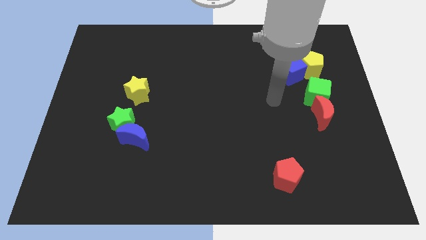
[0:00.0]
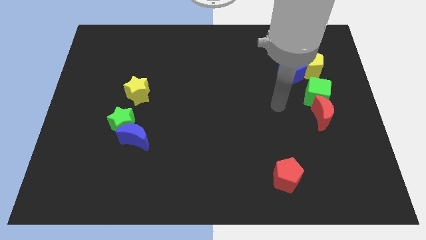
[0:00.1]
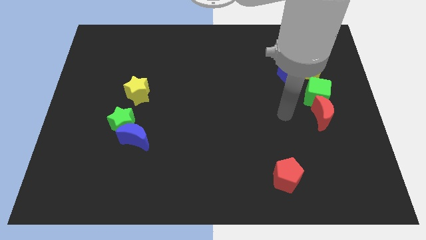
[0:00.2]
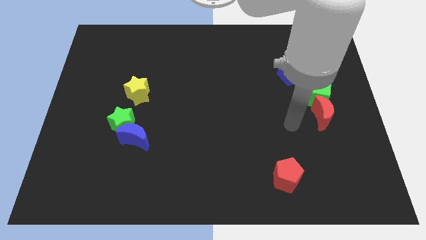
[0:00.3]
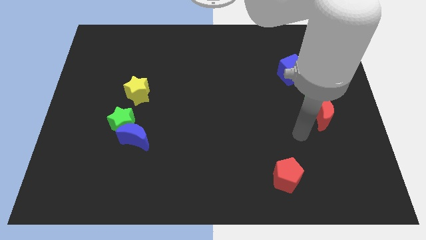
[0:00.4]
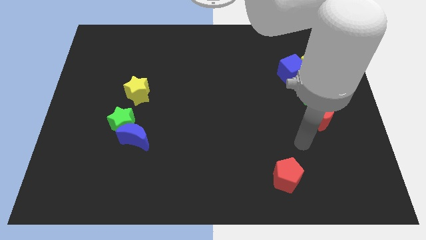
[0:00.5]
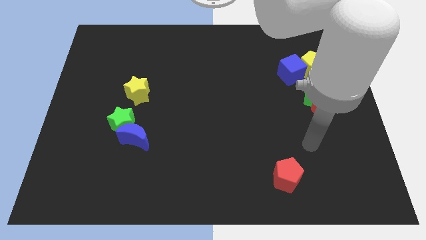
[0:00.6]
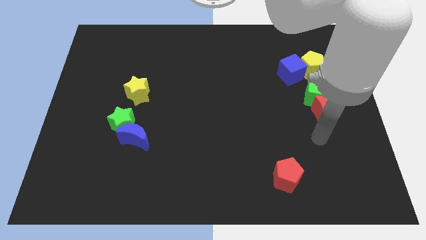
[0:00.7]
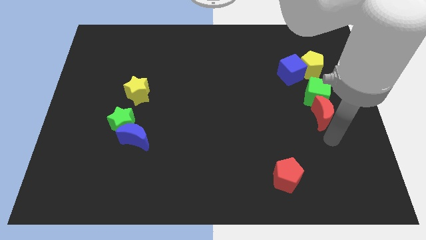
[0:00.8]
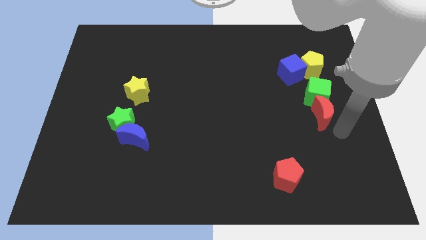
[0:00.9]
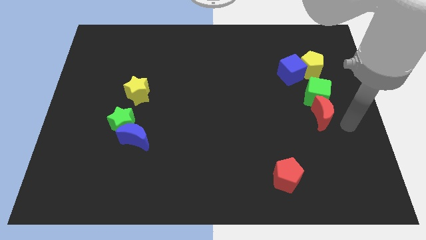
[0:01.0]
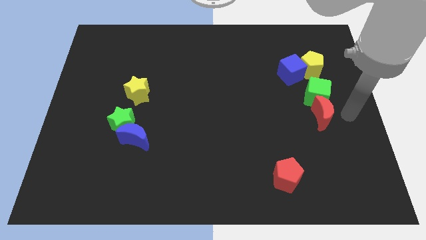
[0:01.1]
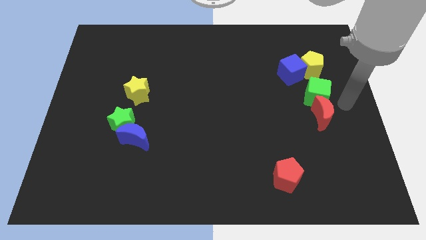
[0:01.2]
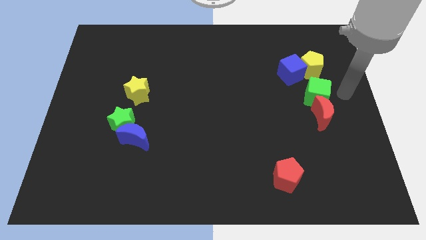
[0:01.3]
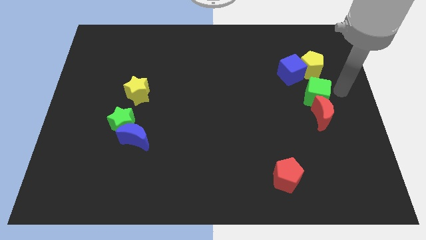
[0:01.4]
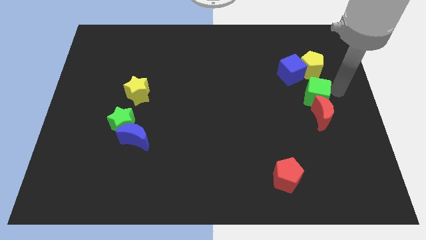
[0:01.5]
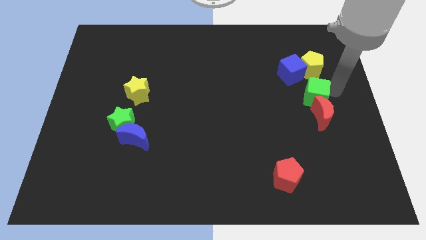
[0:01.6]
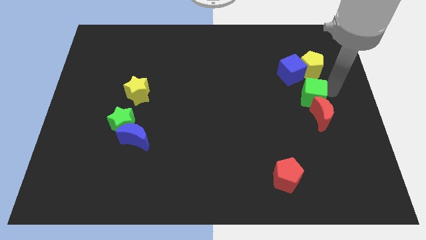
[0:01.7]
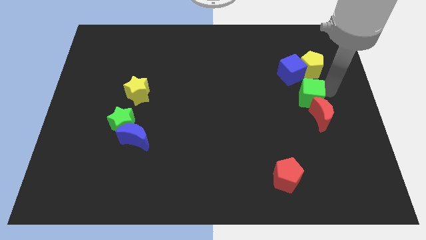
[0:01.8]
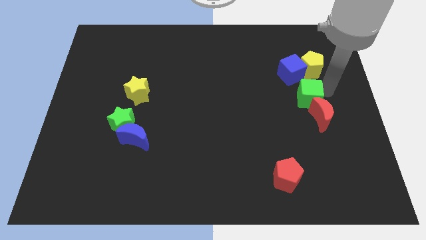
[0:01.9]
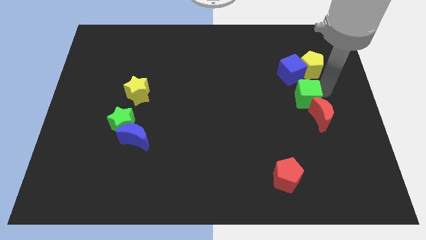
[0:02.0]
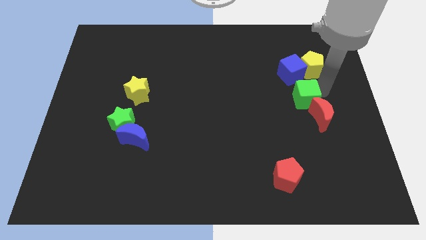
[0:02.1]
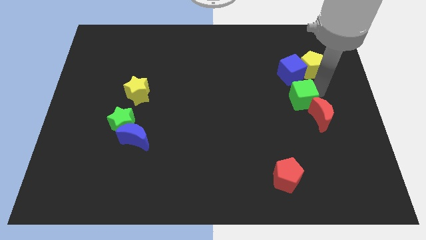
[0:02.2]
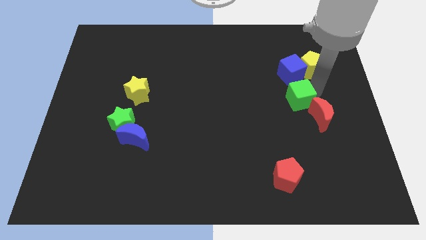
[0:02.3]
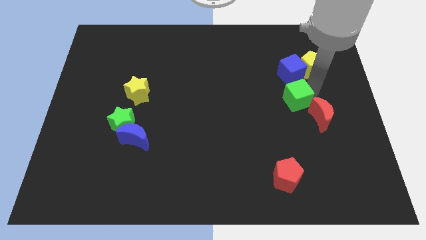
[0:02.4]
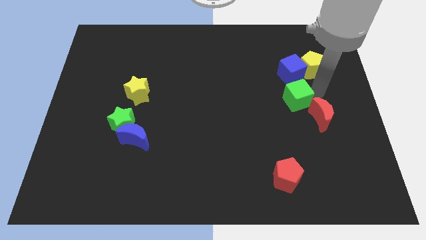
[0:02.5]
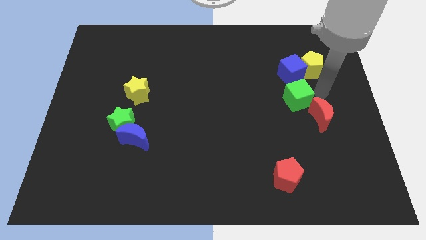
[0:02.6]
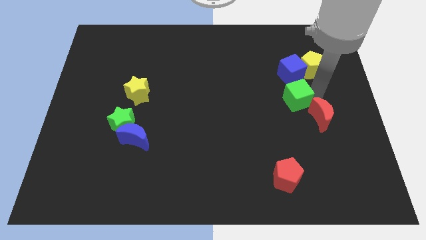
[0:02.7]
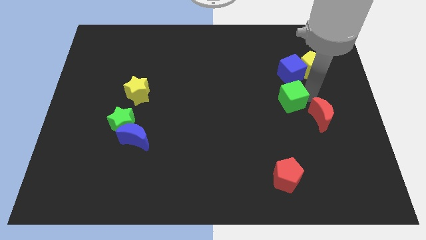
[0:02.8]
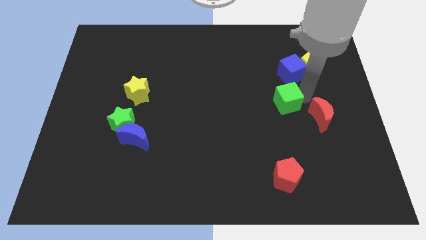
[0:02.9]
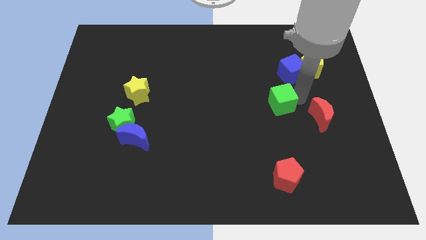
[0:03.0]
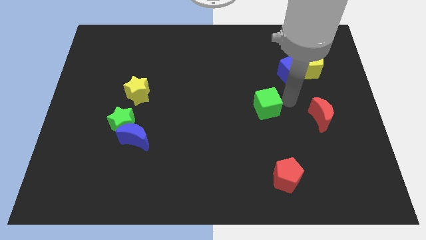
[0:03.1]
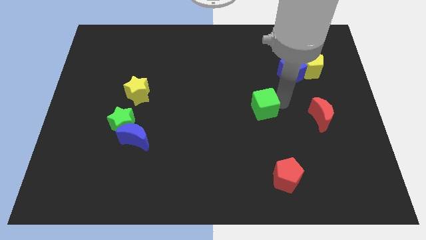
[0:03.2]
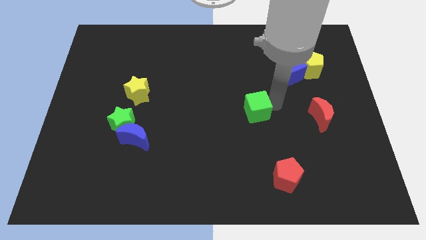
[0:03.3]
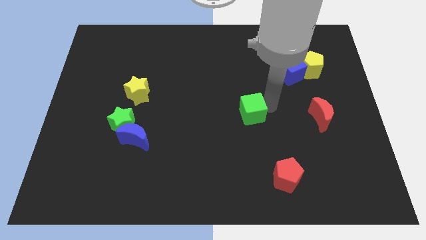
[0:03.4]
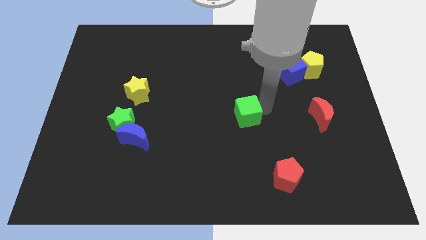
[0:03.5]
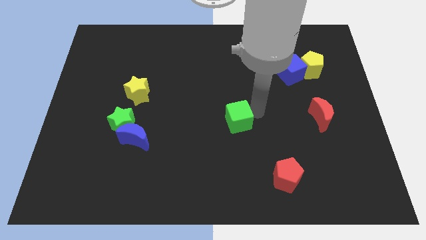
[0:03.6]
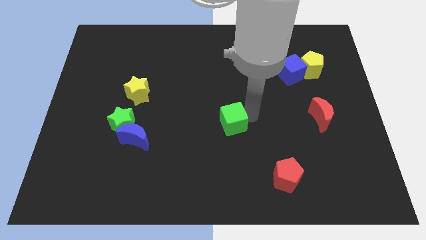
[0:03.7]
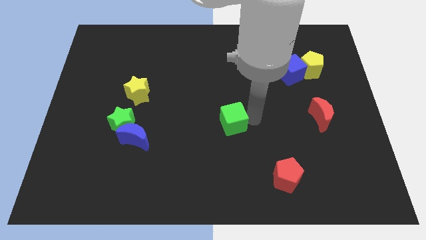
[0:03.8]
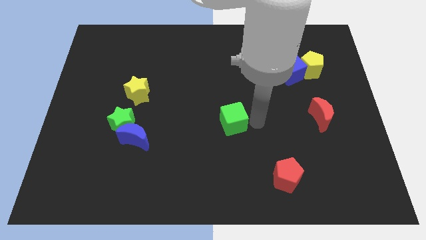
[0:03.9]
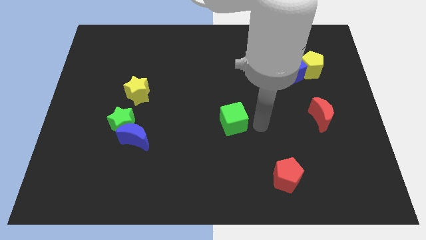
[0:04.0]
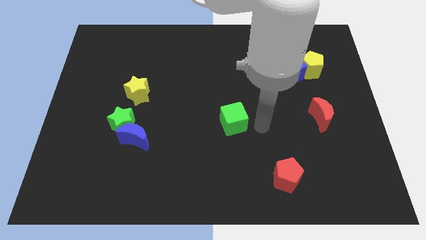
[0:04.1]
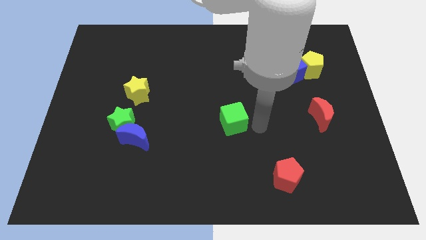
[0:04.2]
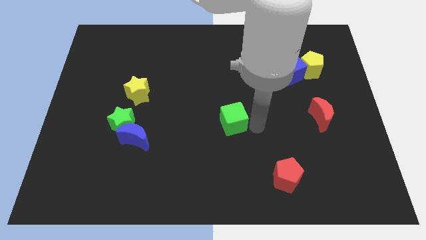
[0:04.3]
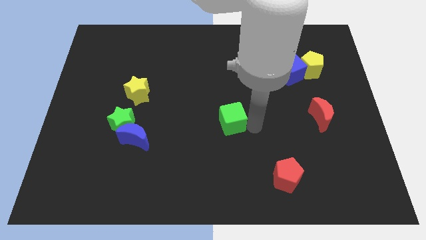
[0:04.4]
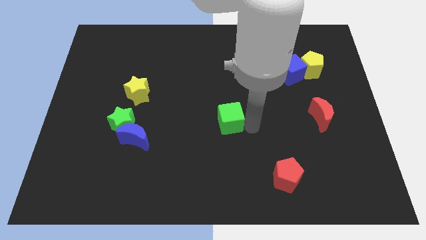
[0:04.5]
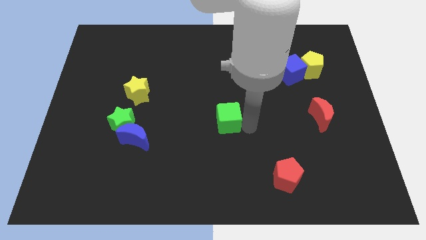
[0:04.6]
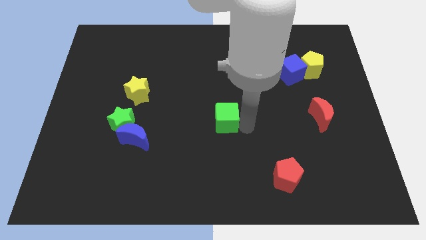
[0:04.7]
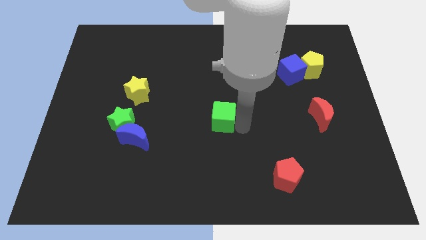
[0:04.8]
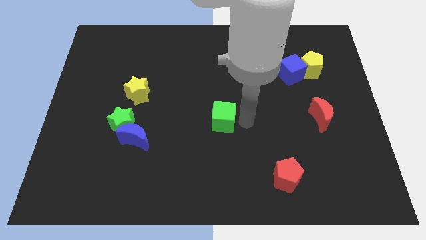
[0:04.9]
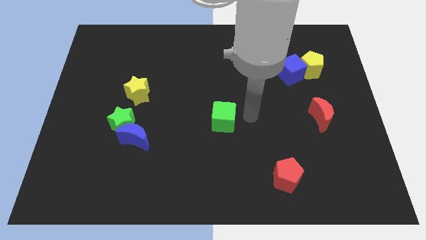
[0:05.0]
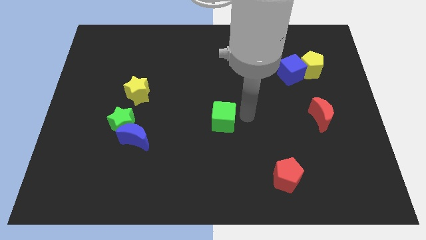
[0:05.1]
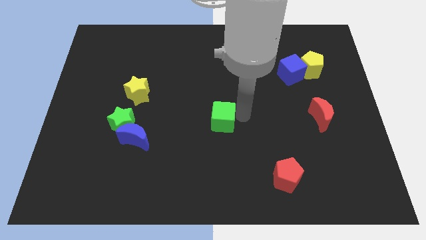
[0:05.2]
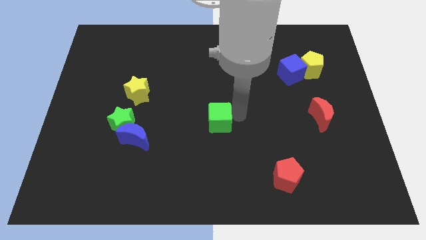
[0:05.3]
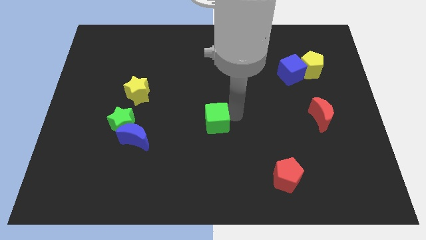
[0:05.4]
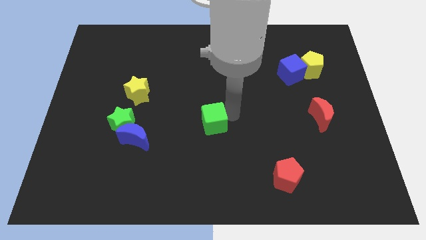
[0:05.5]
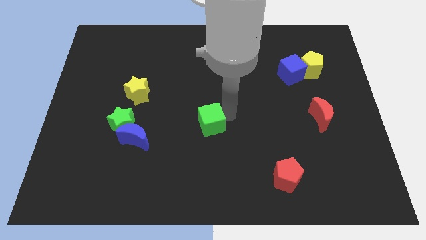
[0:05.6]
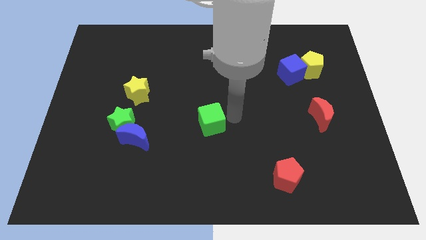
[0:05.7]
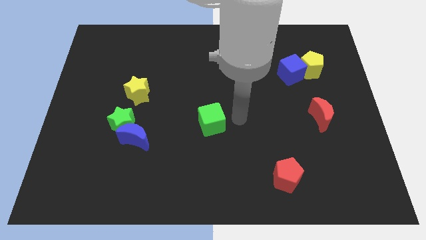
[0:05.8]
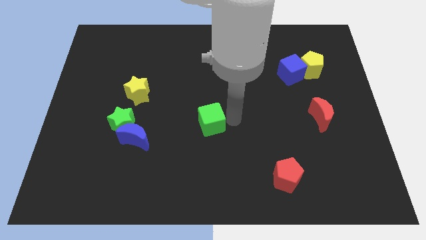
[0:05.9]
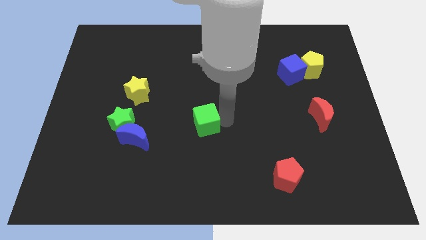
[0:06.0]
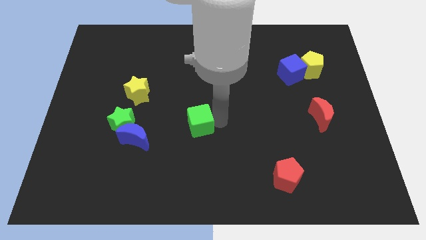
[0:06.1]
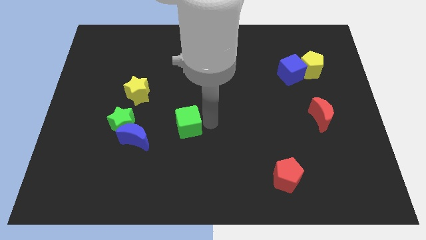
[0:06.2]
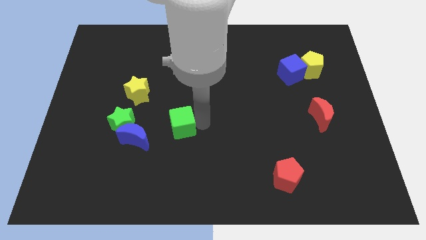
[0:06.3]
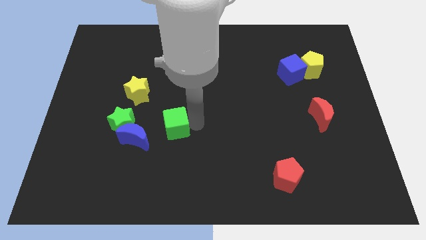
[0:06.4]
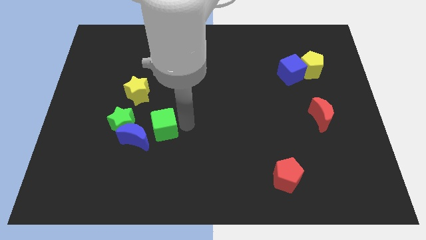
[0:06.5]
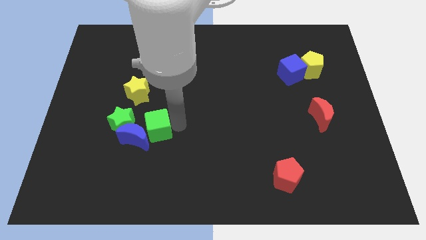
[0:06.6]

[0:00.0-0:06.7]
put the green cube to the blue moon

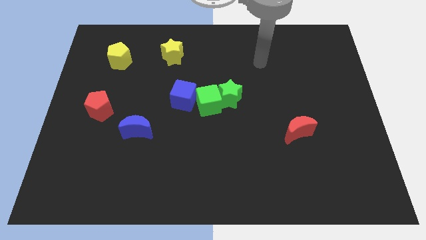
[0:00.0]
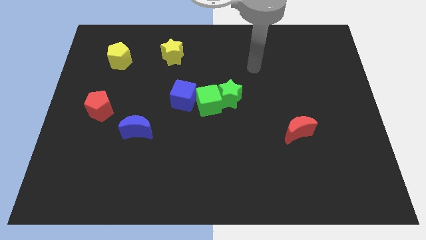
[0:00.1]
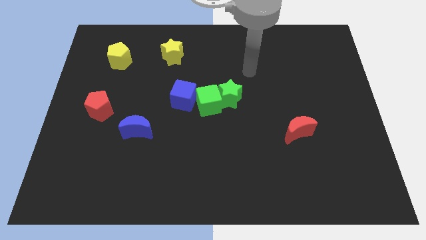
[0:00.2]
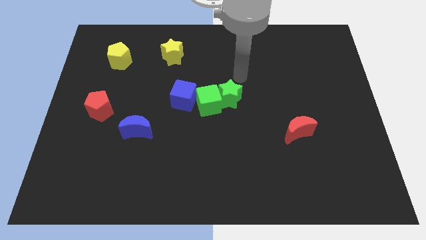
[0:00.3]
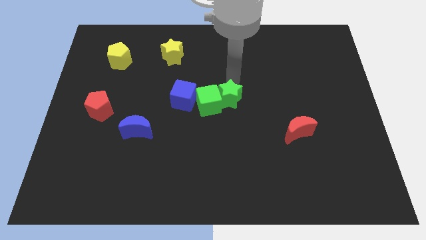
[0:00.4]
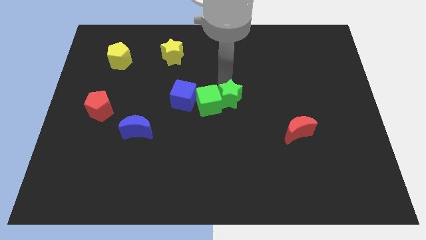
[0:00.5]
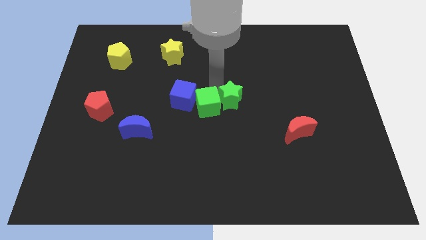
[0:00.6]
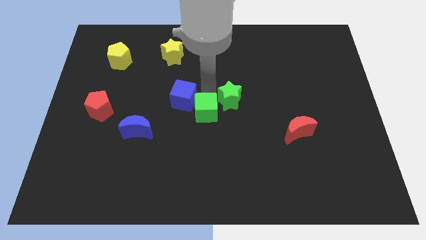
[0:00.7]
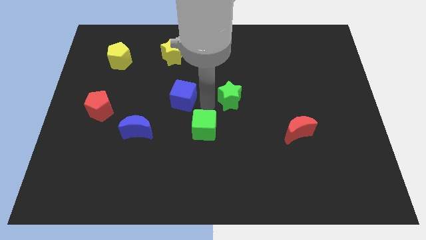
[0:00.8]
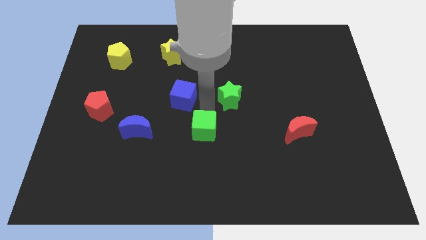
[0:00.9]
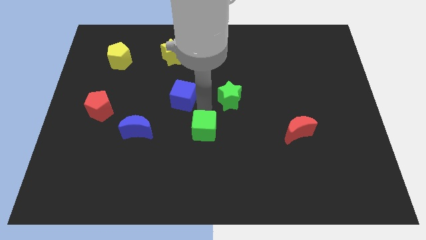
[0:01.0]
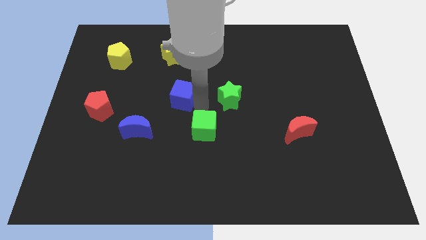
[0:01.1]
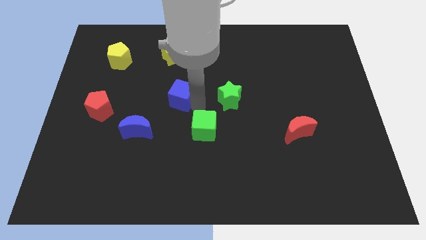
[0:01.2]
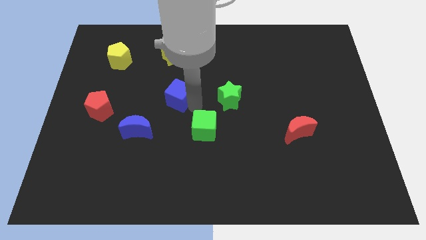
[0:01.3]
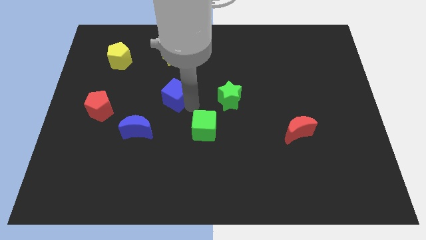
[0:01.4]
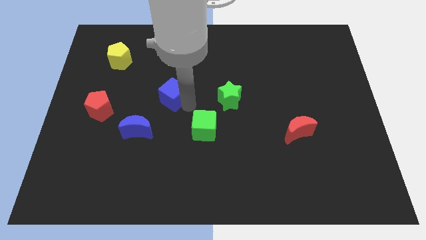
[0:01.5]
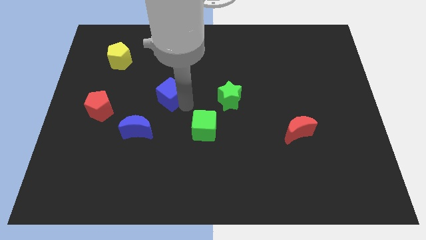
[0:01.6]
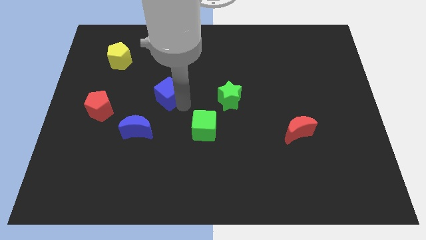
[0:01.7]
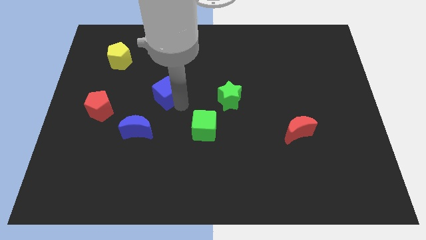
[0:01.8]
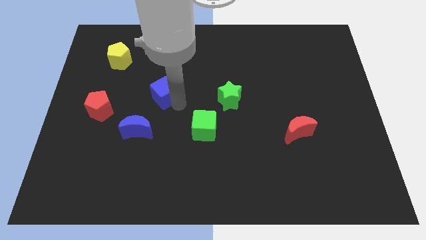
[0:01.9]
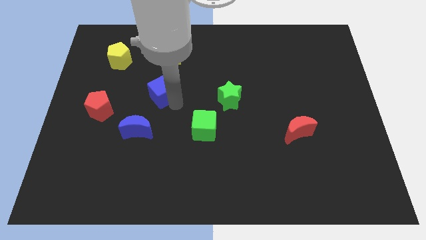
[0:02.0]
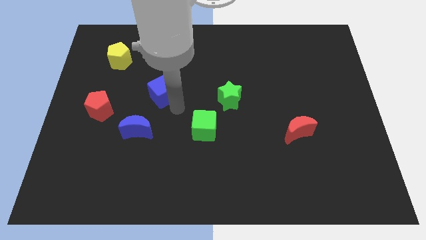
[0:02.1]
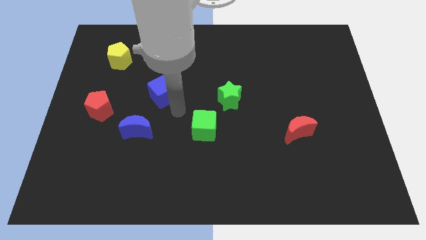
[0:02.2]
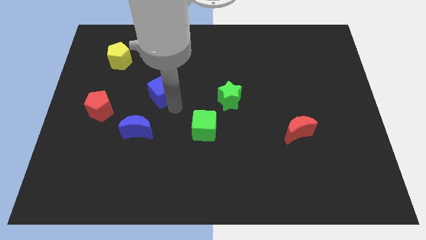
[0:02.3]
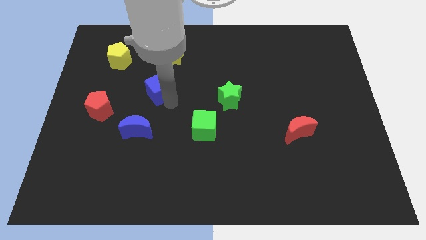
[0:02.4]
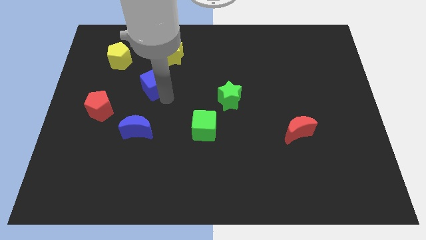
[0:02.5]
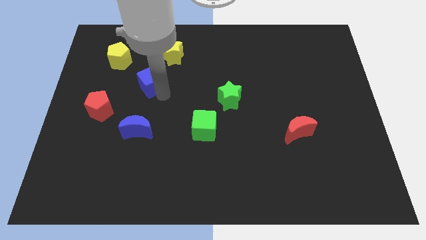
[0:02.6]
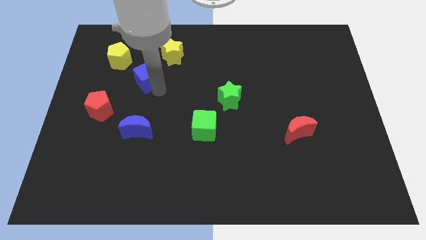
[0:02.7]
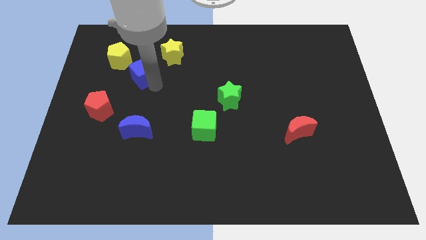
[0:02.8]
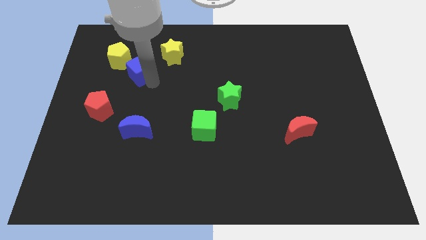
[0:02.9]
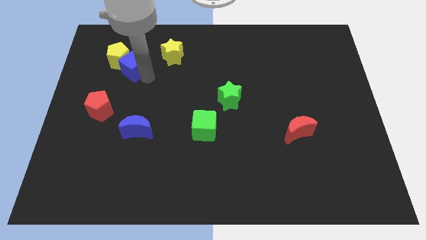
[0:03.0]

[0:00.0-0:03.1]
push the blue cube to the yellow pentagon
